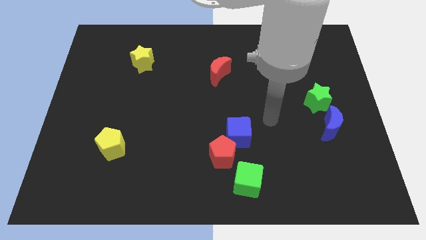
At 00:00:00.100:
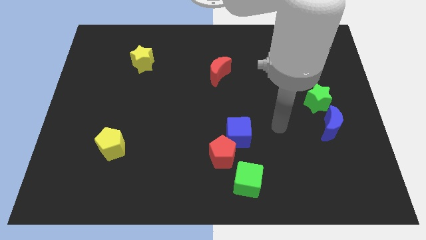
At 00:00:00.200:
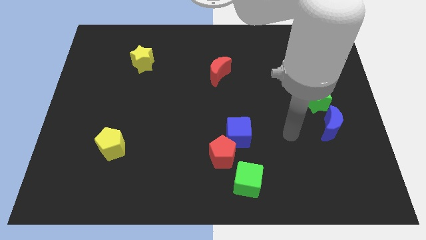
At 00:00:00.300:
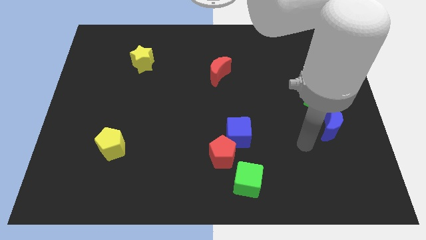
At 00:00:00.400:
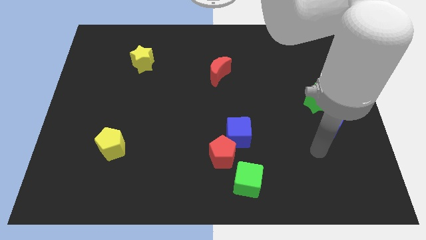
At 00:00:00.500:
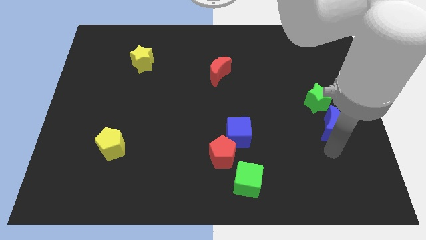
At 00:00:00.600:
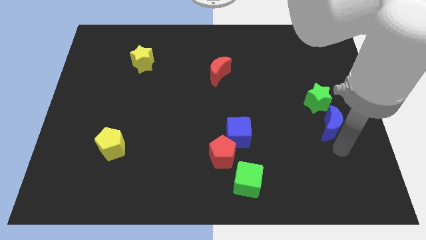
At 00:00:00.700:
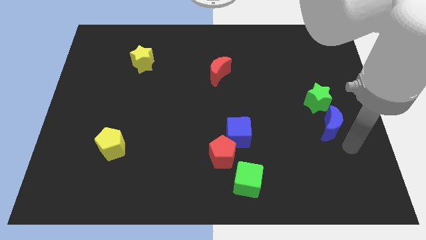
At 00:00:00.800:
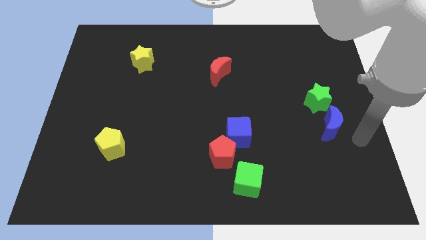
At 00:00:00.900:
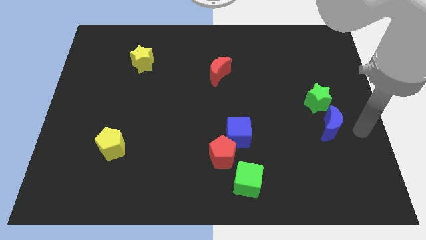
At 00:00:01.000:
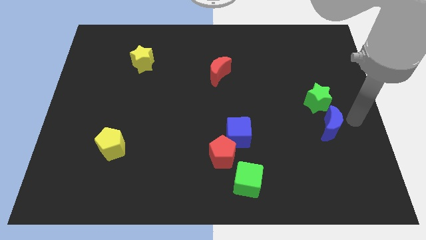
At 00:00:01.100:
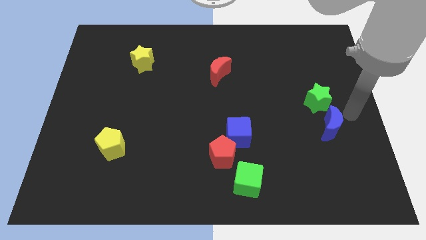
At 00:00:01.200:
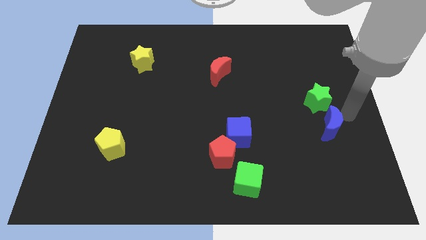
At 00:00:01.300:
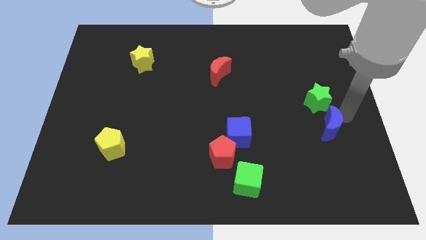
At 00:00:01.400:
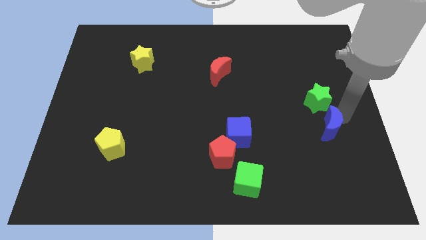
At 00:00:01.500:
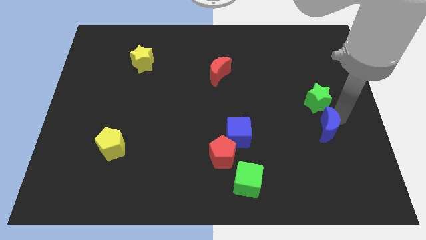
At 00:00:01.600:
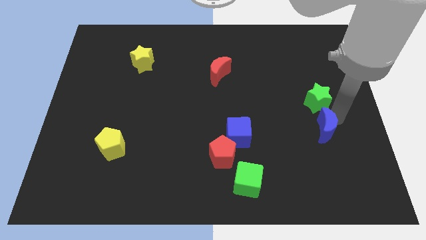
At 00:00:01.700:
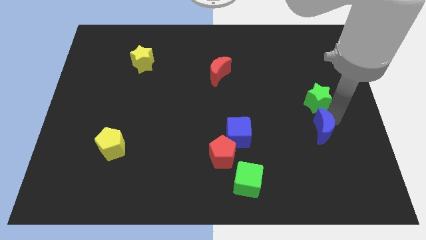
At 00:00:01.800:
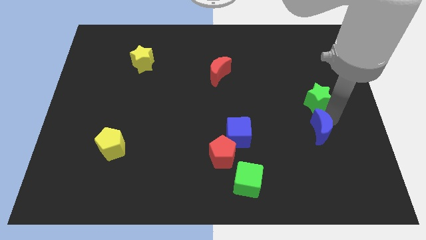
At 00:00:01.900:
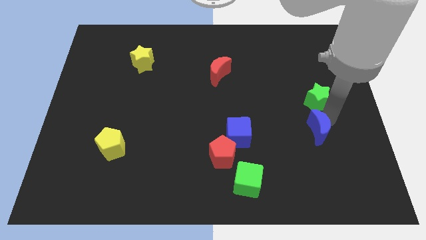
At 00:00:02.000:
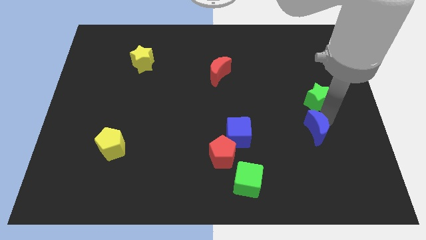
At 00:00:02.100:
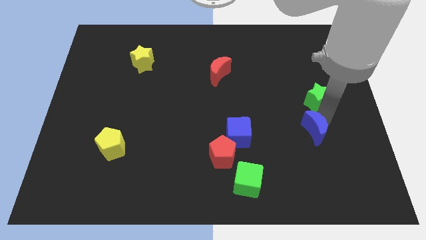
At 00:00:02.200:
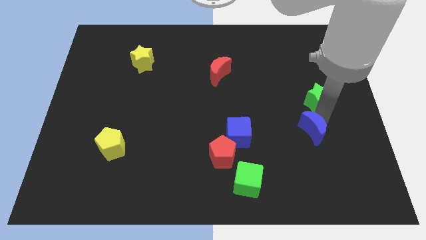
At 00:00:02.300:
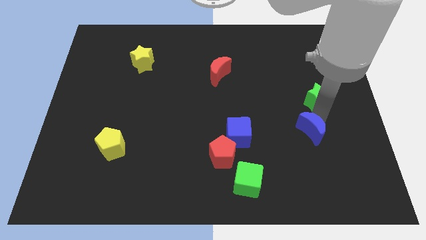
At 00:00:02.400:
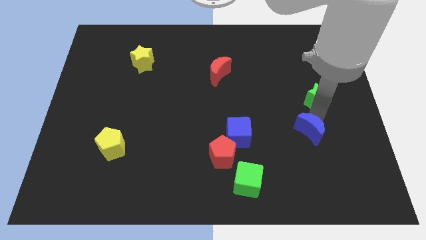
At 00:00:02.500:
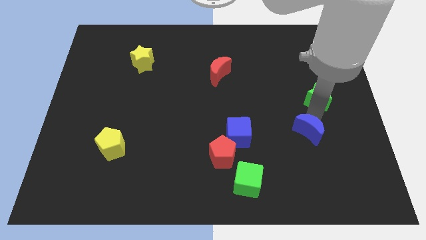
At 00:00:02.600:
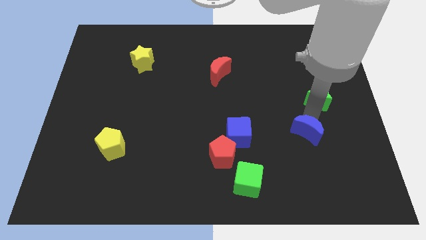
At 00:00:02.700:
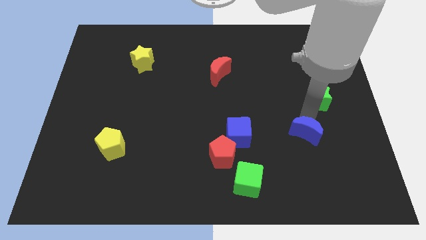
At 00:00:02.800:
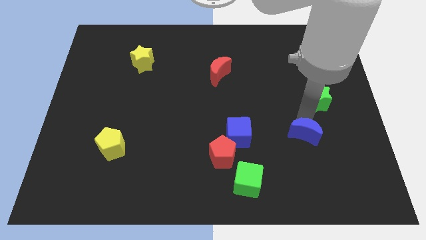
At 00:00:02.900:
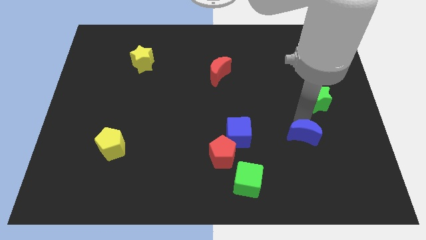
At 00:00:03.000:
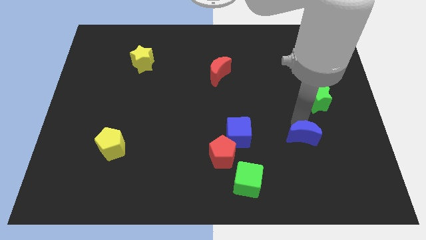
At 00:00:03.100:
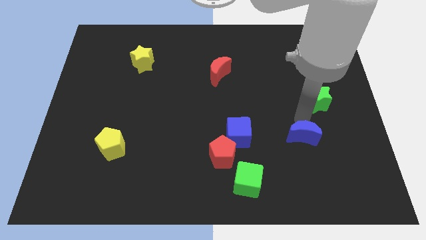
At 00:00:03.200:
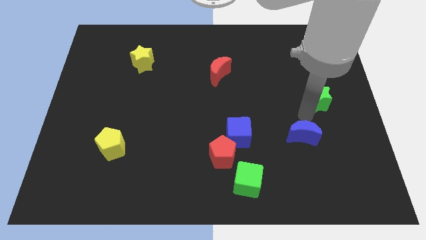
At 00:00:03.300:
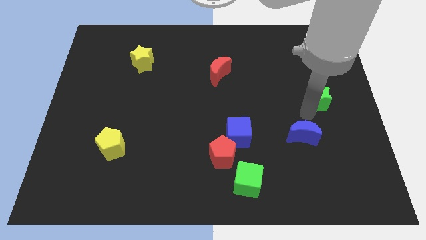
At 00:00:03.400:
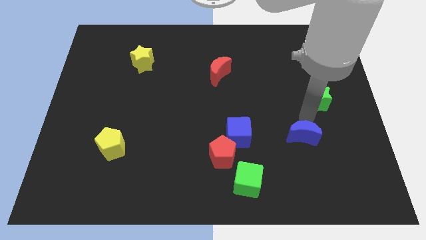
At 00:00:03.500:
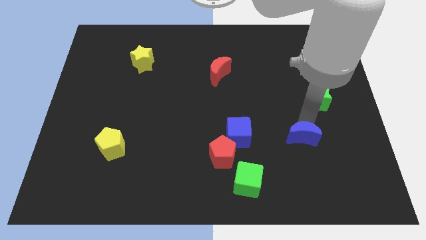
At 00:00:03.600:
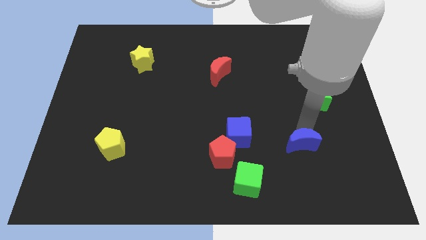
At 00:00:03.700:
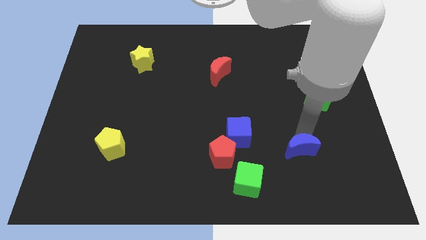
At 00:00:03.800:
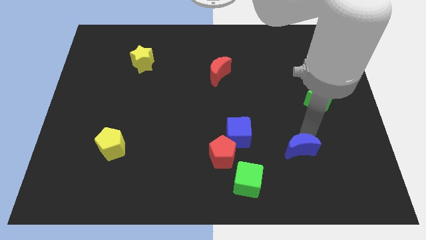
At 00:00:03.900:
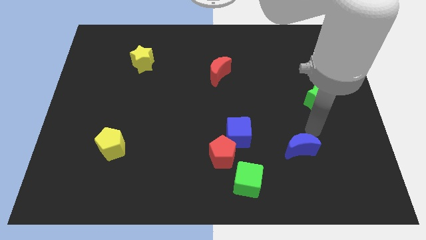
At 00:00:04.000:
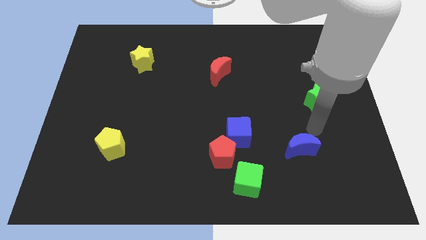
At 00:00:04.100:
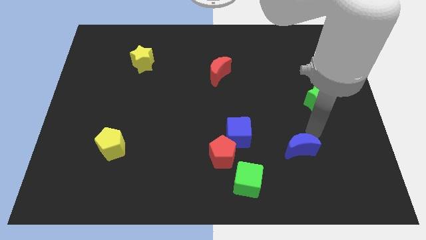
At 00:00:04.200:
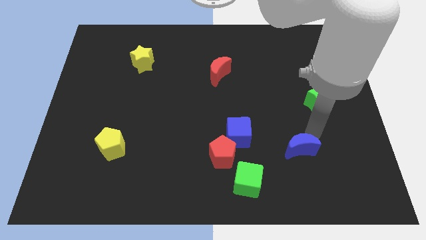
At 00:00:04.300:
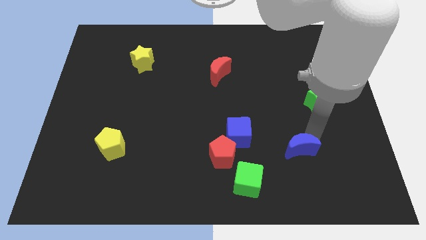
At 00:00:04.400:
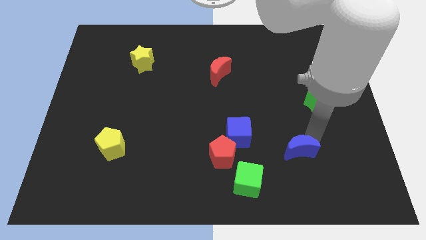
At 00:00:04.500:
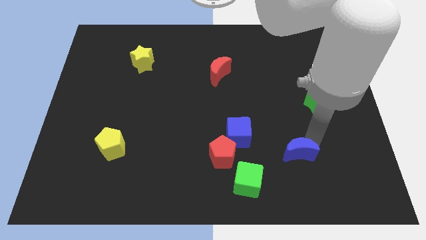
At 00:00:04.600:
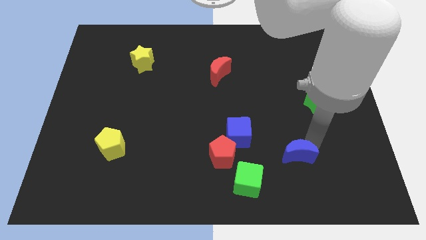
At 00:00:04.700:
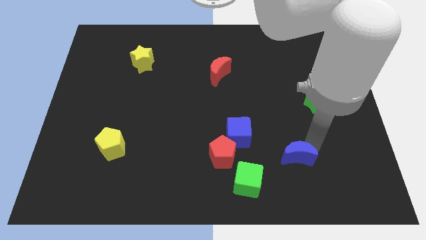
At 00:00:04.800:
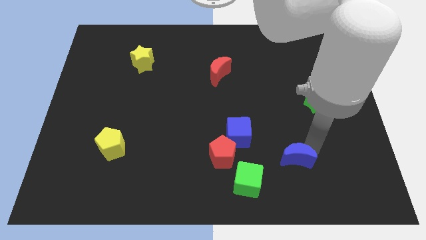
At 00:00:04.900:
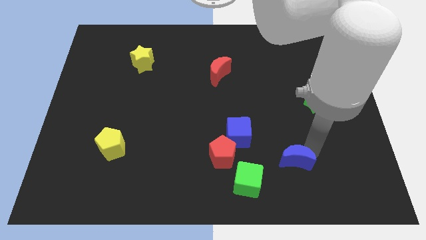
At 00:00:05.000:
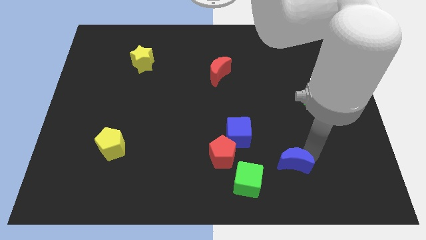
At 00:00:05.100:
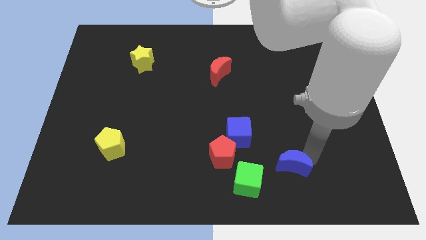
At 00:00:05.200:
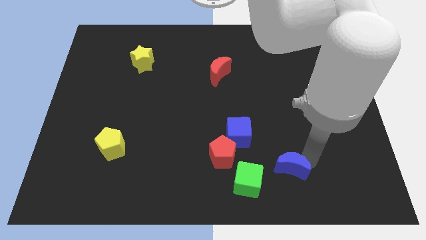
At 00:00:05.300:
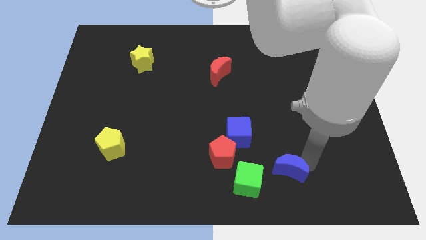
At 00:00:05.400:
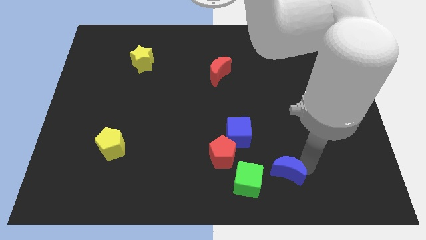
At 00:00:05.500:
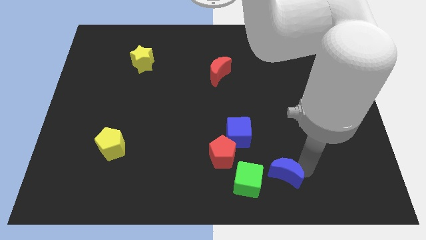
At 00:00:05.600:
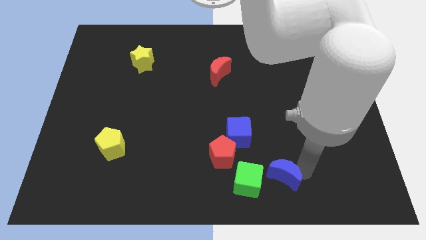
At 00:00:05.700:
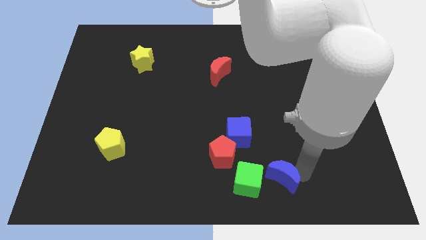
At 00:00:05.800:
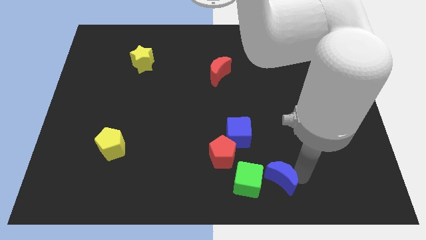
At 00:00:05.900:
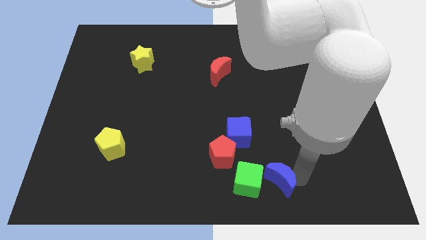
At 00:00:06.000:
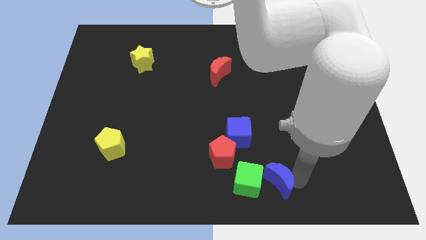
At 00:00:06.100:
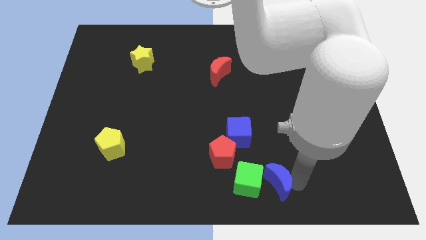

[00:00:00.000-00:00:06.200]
push the blue moon next to the green cube
